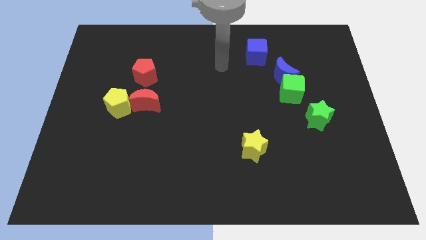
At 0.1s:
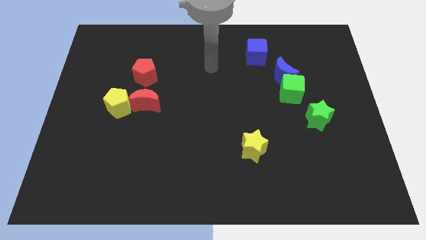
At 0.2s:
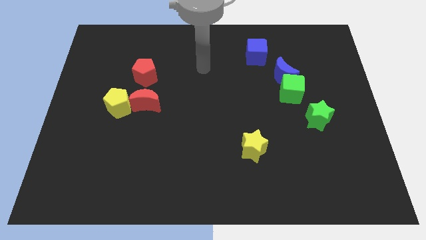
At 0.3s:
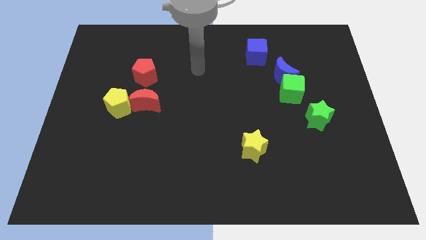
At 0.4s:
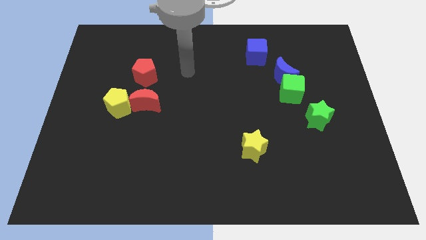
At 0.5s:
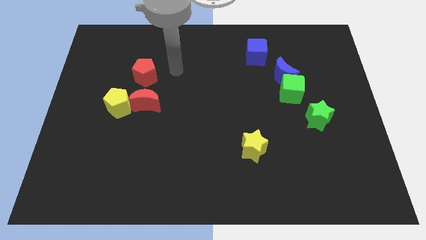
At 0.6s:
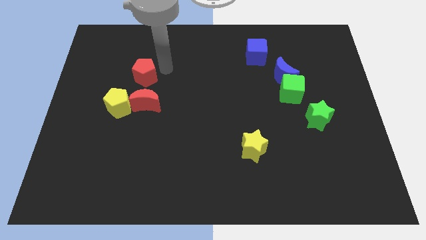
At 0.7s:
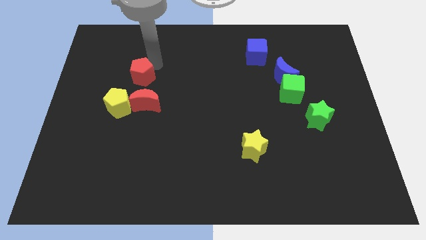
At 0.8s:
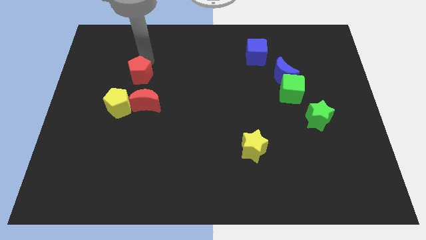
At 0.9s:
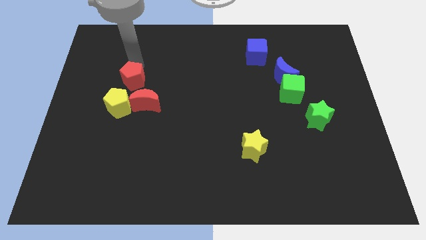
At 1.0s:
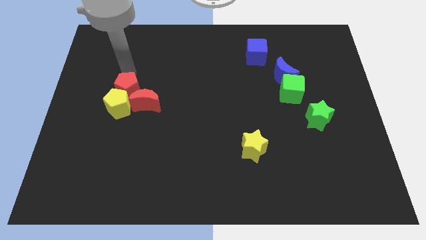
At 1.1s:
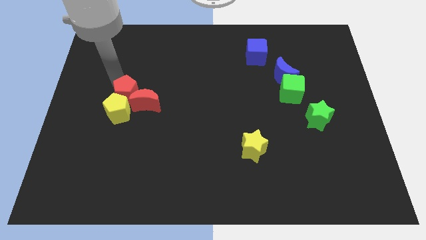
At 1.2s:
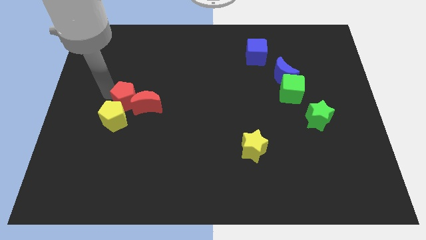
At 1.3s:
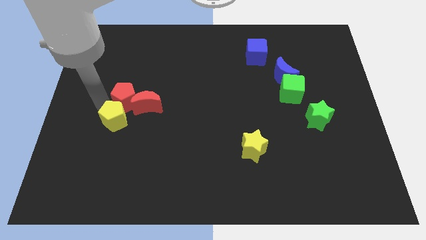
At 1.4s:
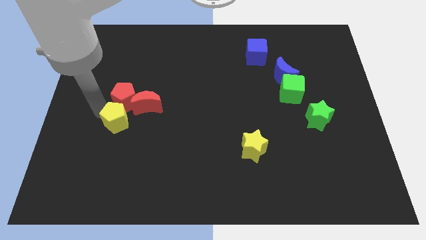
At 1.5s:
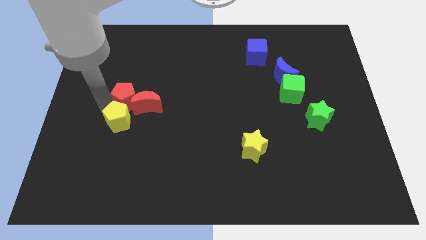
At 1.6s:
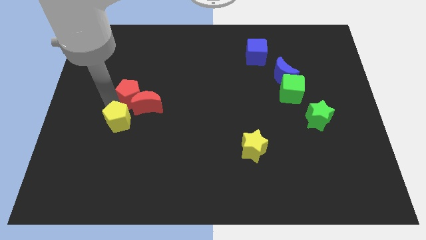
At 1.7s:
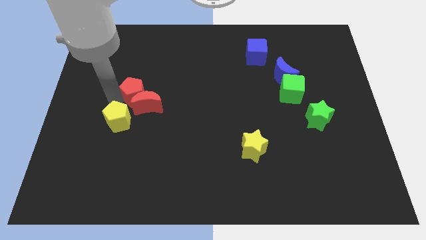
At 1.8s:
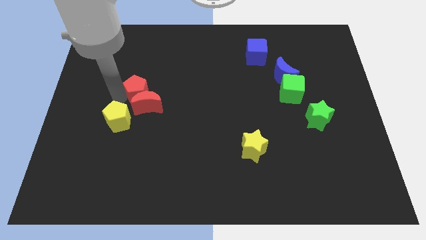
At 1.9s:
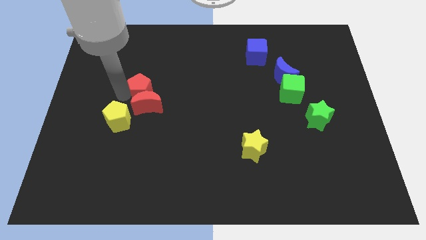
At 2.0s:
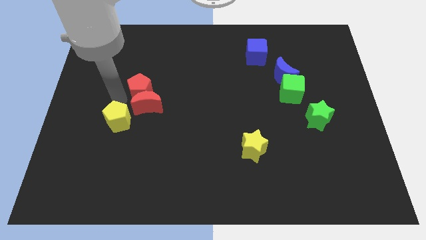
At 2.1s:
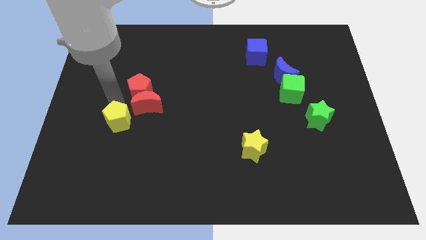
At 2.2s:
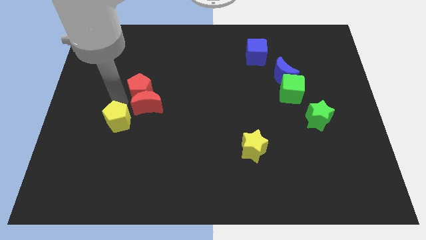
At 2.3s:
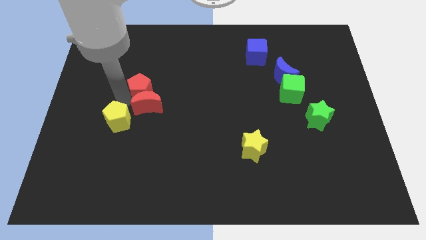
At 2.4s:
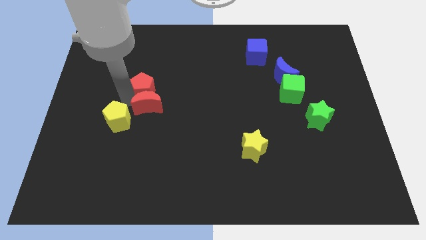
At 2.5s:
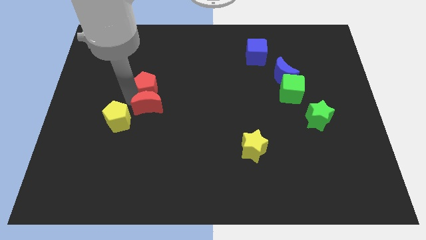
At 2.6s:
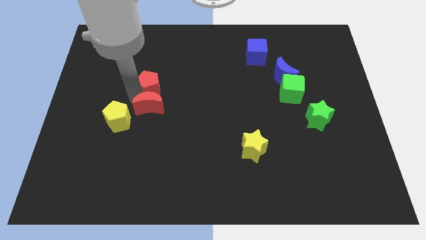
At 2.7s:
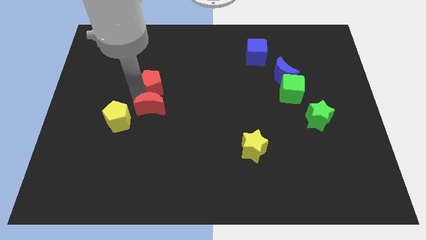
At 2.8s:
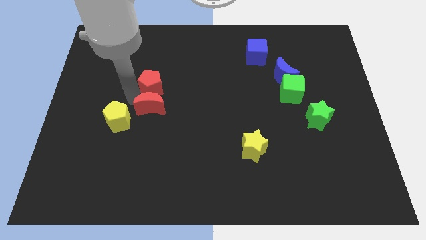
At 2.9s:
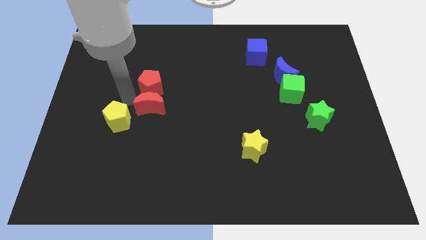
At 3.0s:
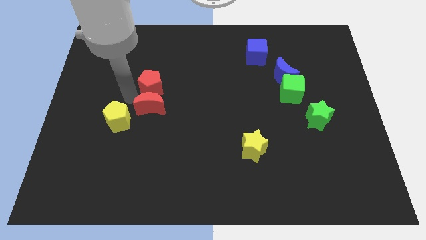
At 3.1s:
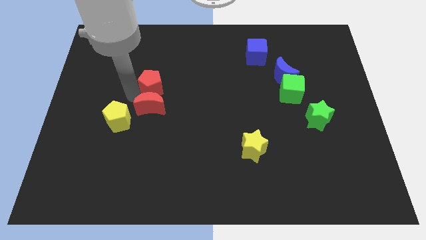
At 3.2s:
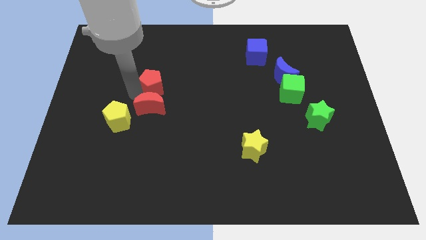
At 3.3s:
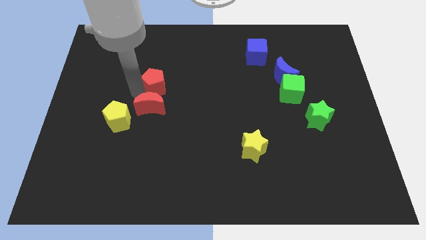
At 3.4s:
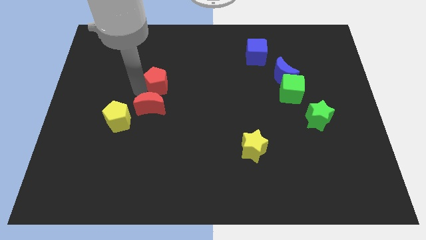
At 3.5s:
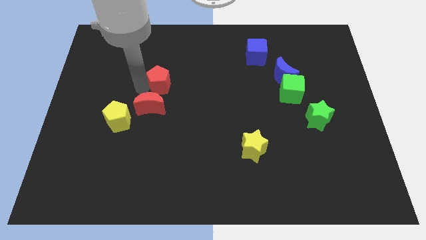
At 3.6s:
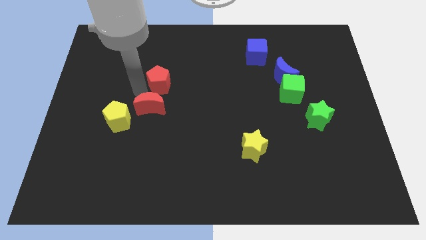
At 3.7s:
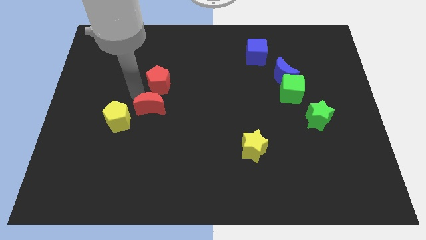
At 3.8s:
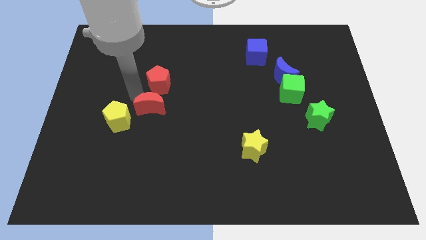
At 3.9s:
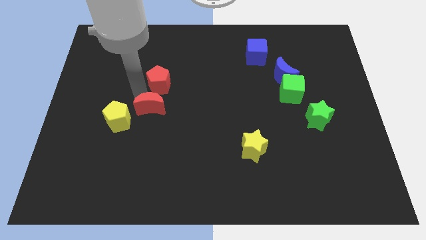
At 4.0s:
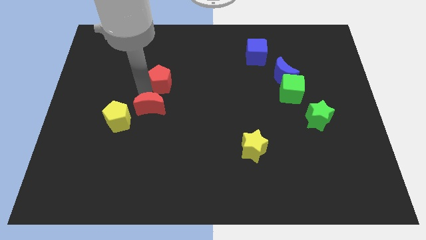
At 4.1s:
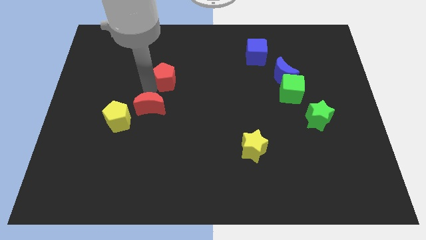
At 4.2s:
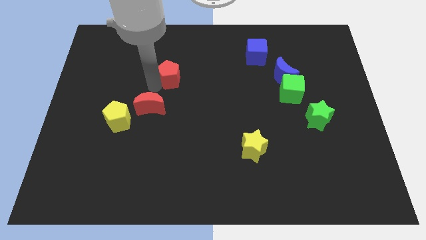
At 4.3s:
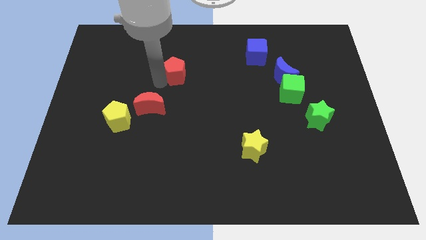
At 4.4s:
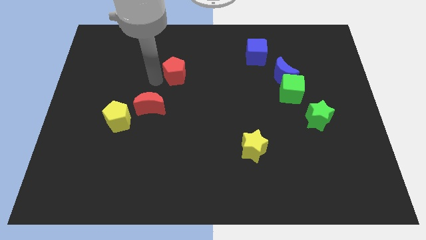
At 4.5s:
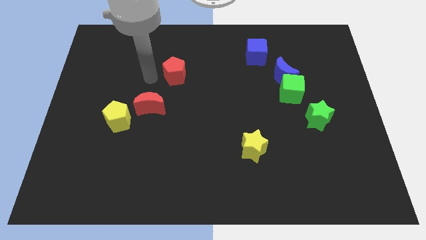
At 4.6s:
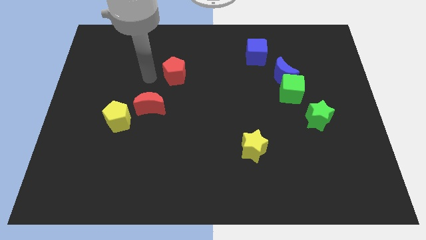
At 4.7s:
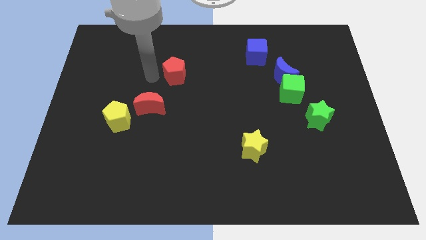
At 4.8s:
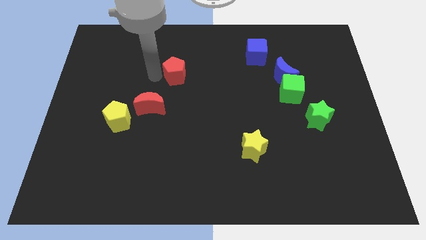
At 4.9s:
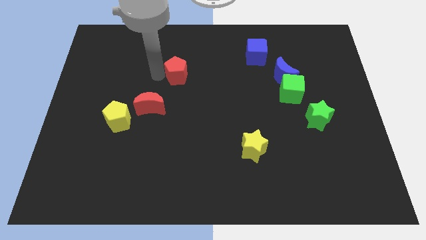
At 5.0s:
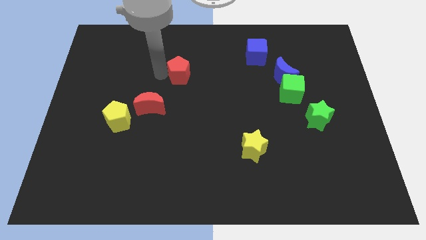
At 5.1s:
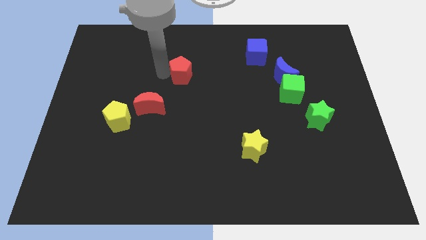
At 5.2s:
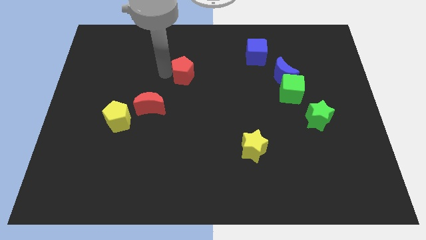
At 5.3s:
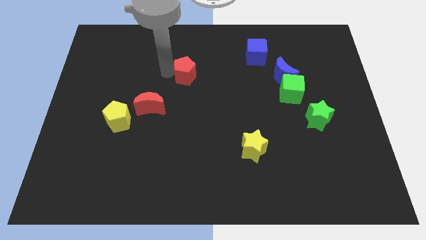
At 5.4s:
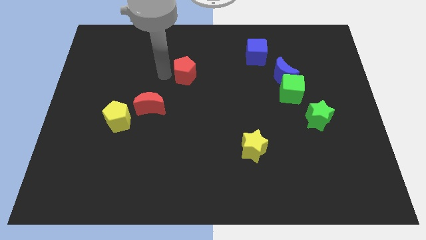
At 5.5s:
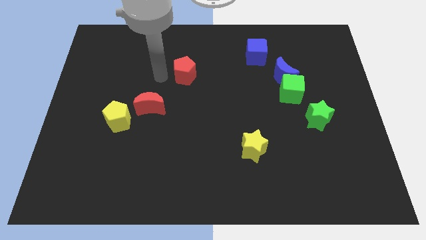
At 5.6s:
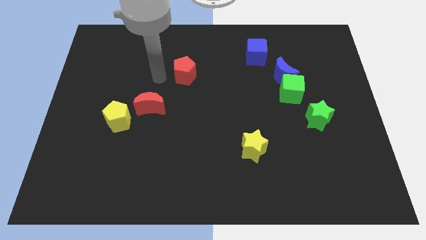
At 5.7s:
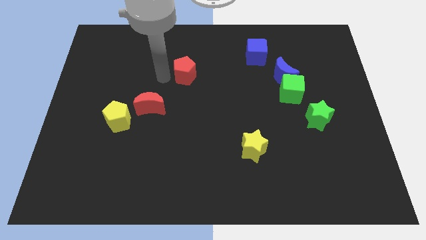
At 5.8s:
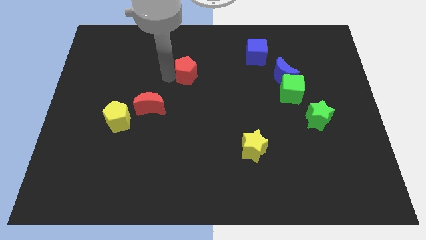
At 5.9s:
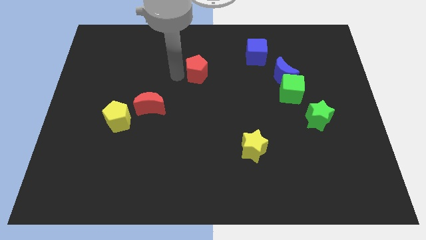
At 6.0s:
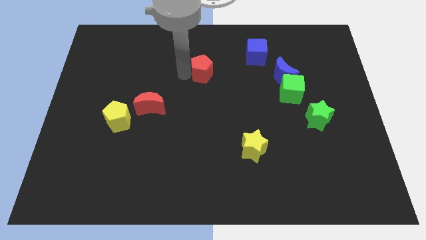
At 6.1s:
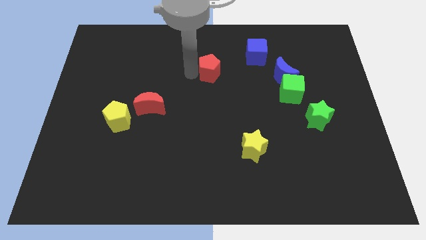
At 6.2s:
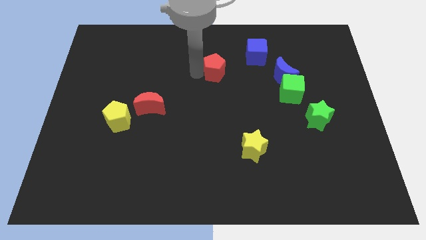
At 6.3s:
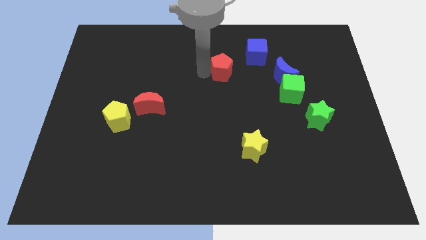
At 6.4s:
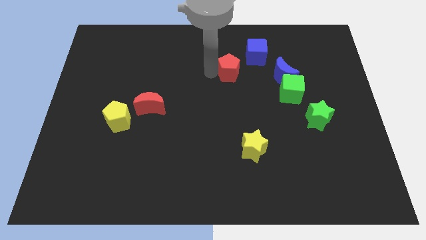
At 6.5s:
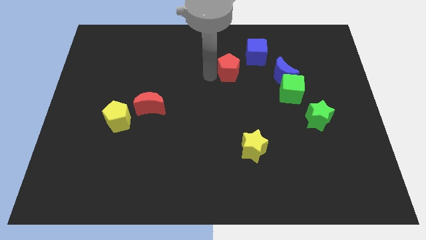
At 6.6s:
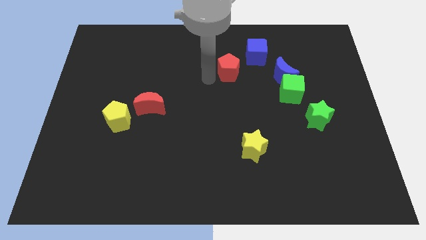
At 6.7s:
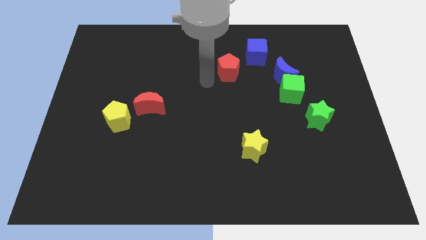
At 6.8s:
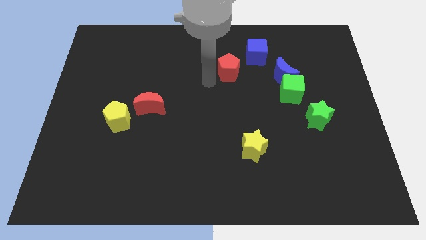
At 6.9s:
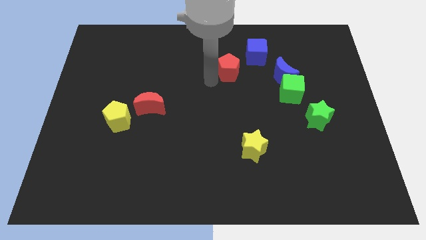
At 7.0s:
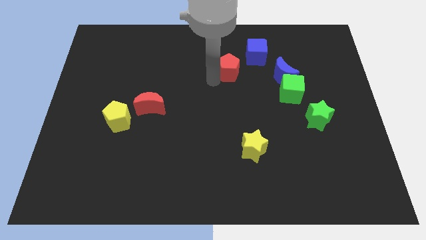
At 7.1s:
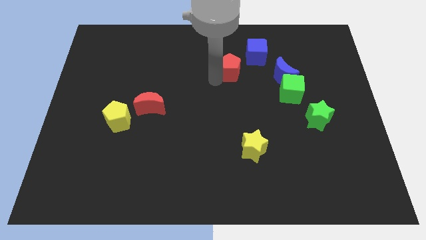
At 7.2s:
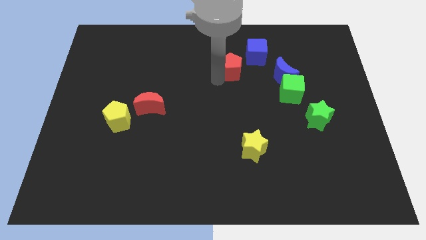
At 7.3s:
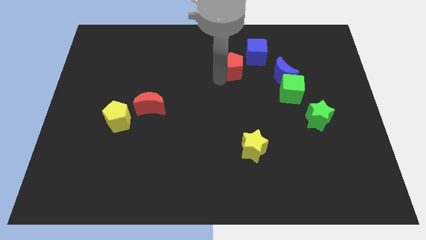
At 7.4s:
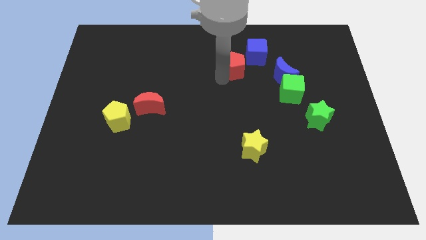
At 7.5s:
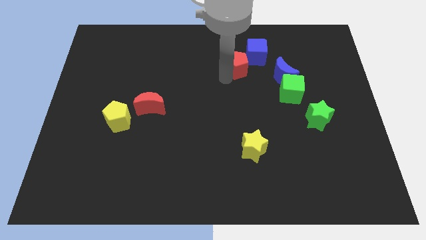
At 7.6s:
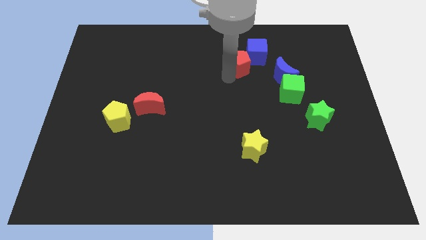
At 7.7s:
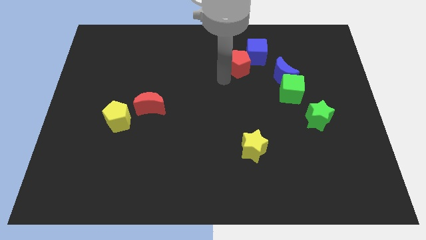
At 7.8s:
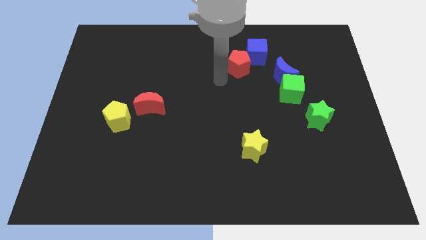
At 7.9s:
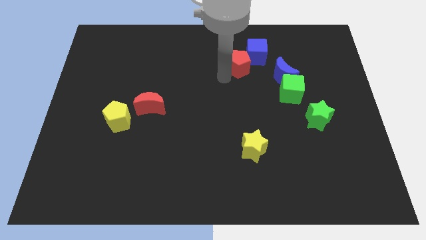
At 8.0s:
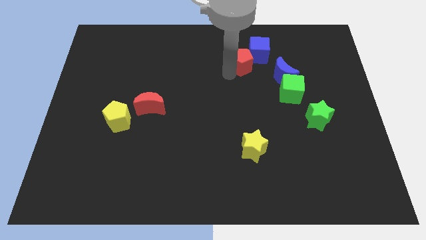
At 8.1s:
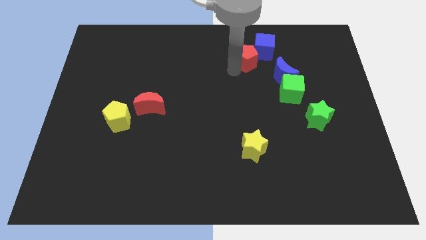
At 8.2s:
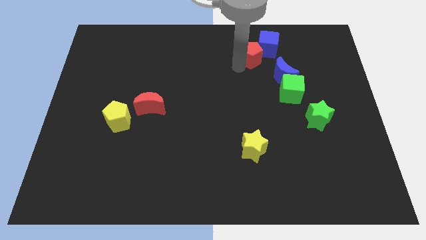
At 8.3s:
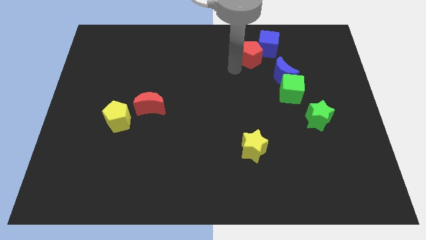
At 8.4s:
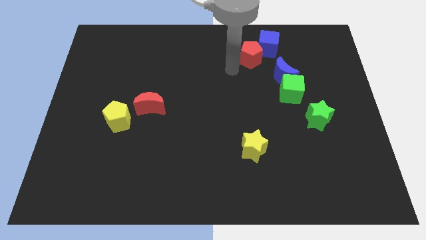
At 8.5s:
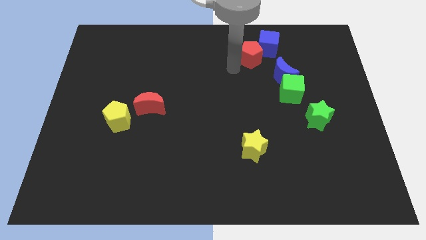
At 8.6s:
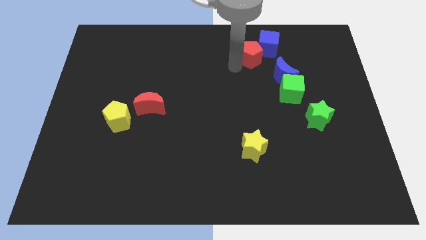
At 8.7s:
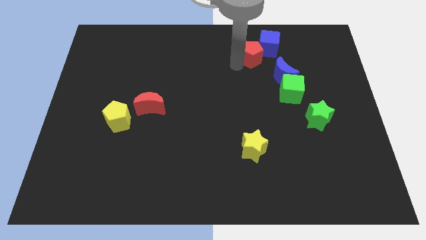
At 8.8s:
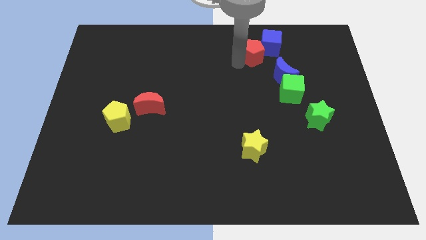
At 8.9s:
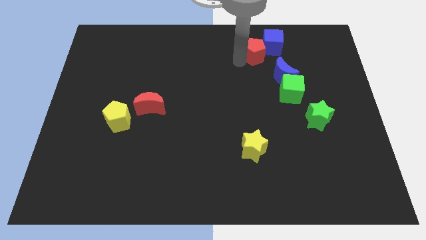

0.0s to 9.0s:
push the red pentagon to the blue cube
